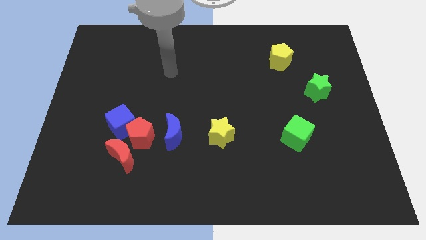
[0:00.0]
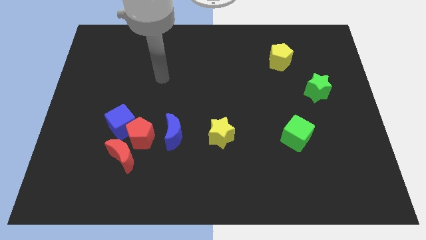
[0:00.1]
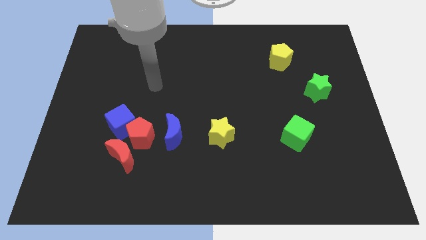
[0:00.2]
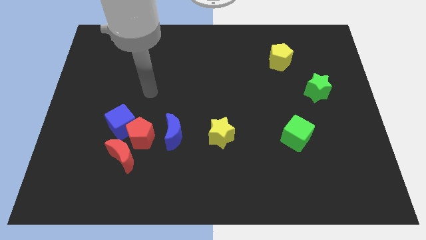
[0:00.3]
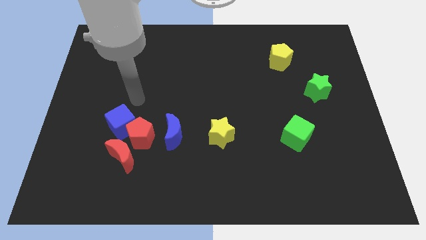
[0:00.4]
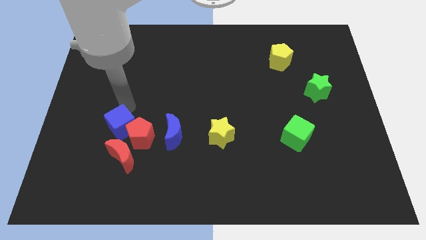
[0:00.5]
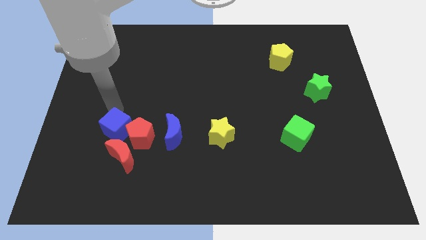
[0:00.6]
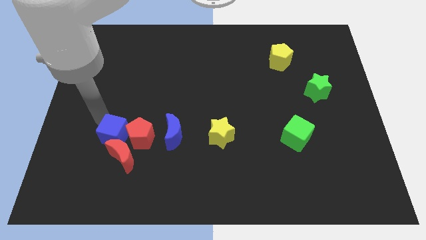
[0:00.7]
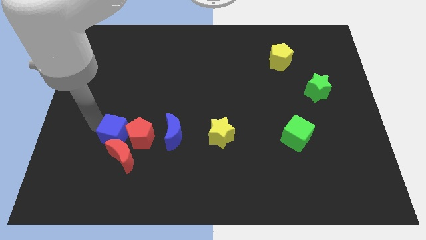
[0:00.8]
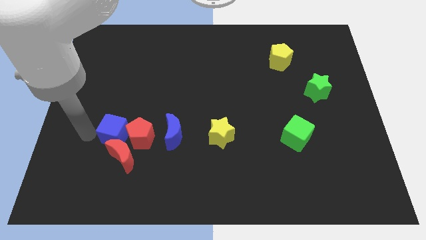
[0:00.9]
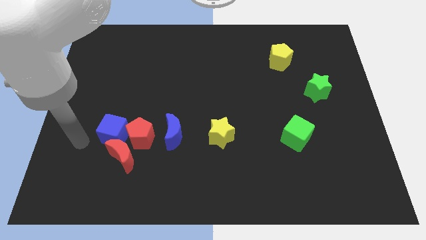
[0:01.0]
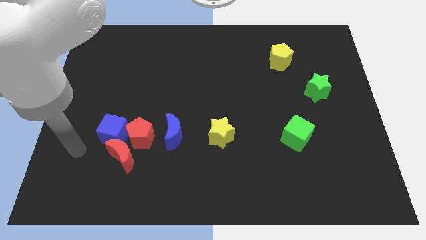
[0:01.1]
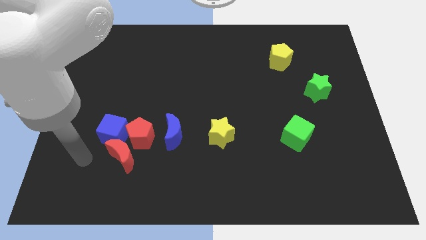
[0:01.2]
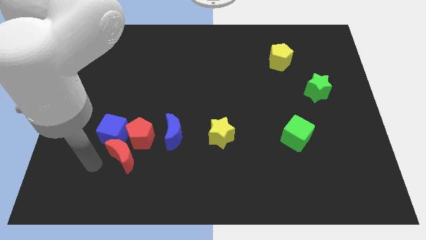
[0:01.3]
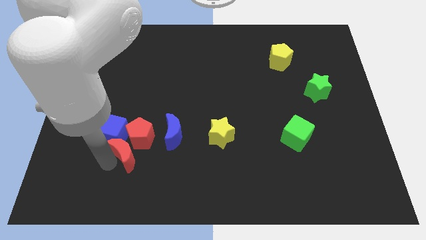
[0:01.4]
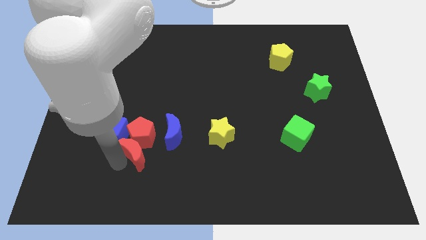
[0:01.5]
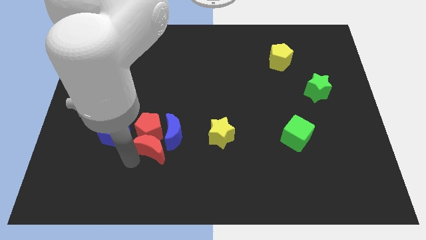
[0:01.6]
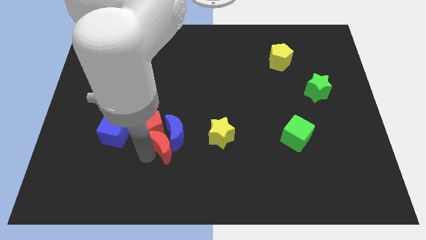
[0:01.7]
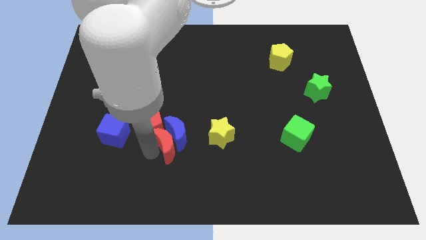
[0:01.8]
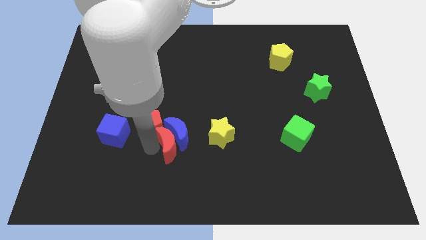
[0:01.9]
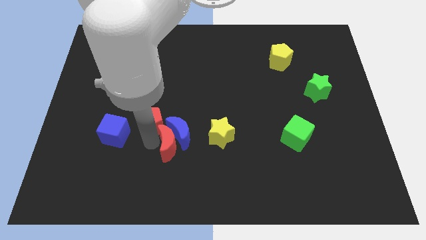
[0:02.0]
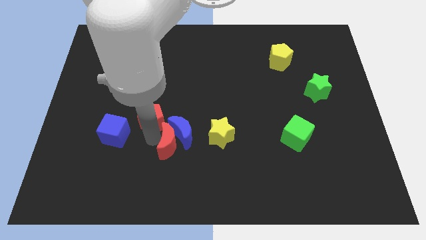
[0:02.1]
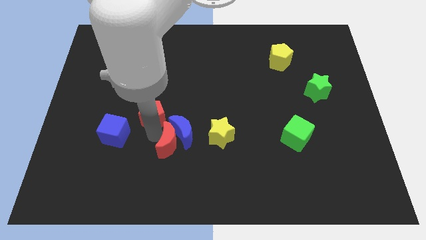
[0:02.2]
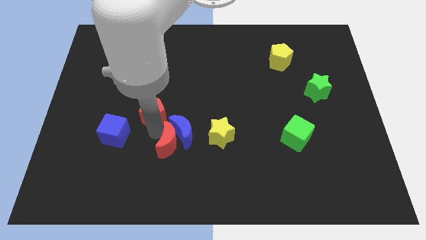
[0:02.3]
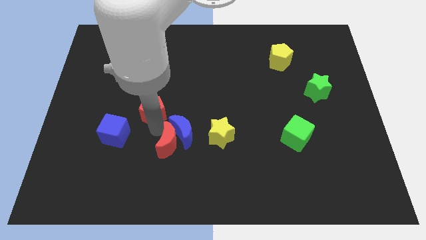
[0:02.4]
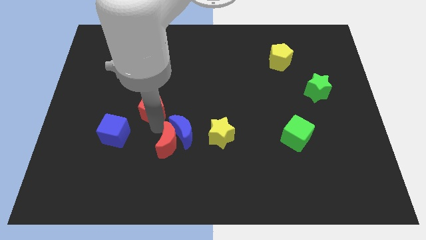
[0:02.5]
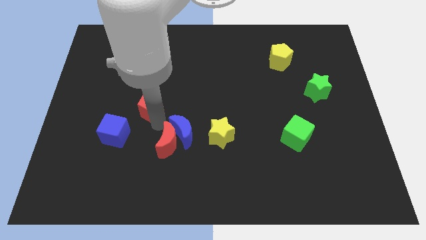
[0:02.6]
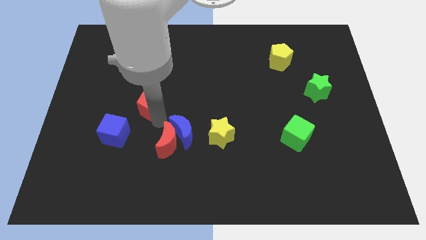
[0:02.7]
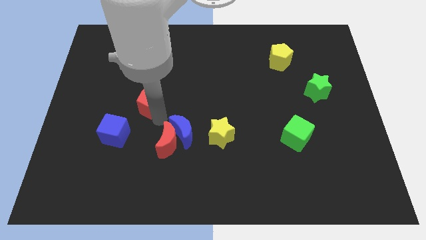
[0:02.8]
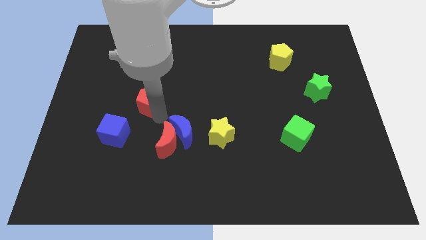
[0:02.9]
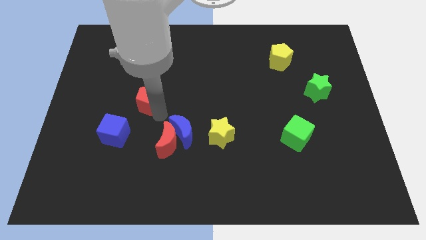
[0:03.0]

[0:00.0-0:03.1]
separate the red pentagon from the blue cube, red moon, and blue moon

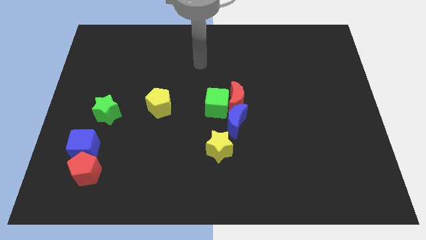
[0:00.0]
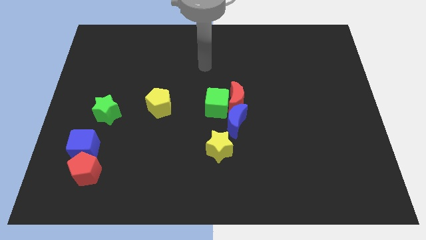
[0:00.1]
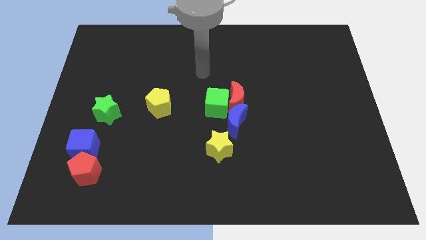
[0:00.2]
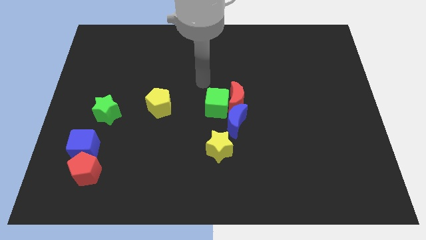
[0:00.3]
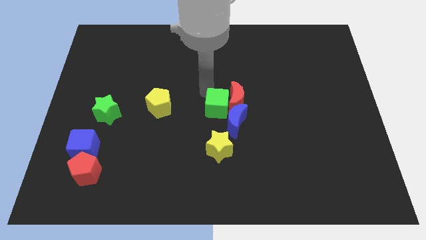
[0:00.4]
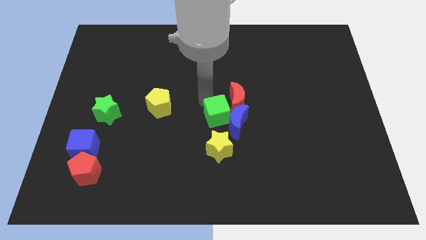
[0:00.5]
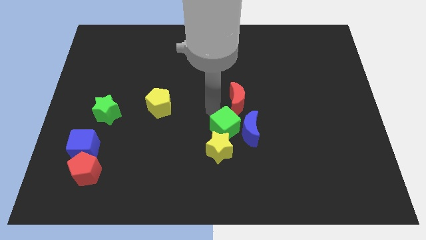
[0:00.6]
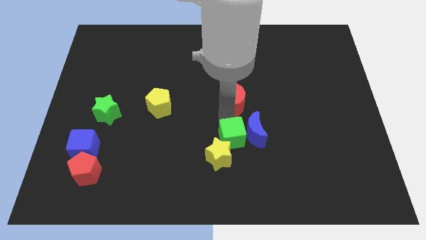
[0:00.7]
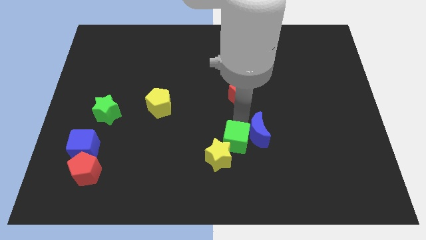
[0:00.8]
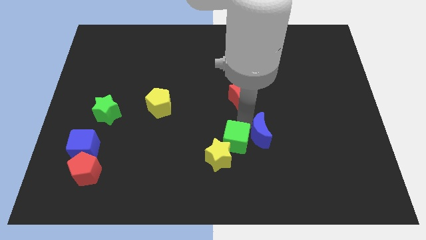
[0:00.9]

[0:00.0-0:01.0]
pull the red moon apart from the green cube and blue moon

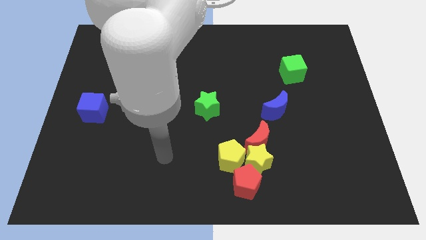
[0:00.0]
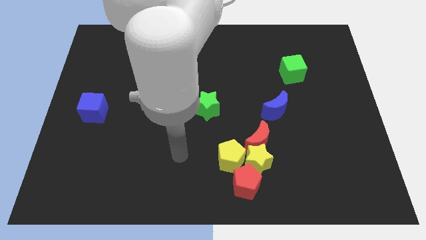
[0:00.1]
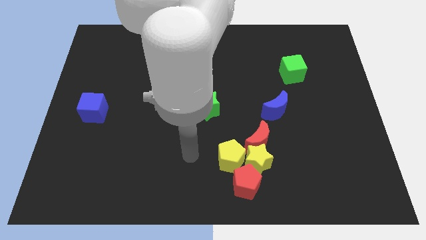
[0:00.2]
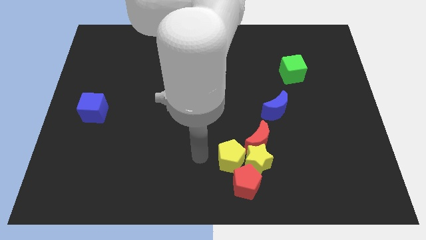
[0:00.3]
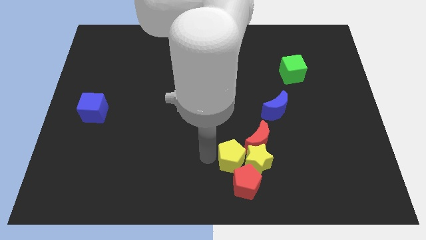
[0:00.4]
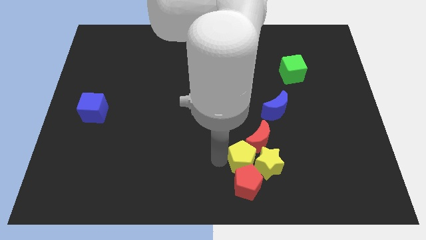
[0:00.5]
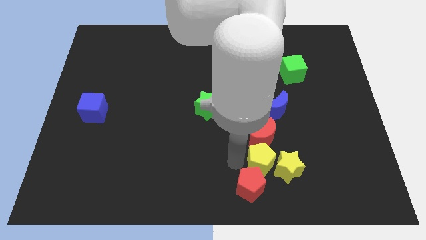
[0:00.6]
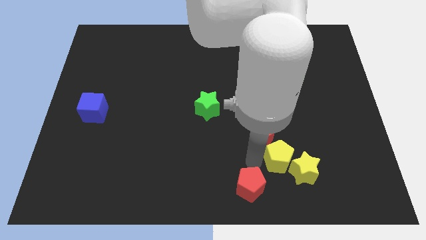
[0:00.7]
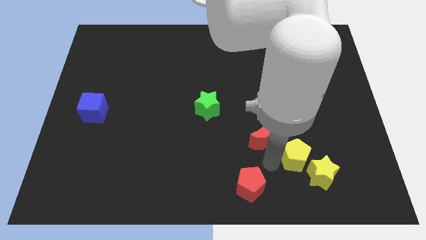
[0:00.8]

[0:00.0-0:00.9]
separate the yellow star from the group

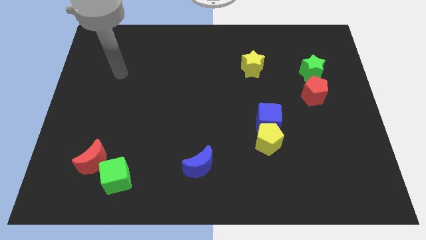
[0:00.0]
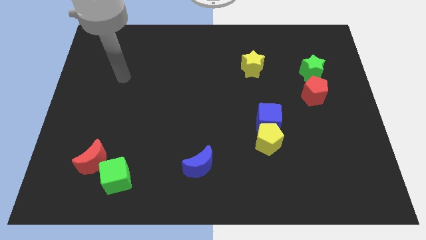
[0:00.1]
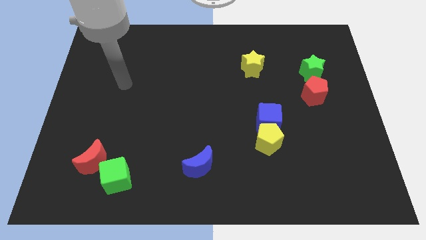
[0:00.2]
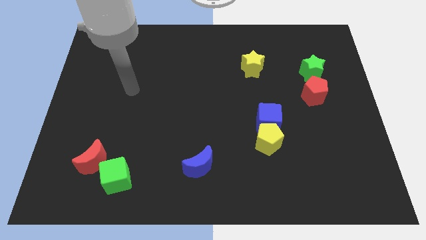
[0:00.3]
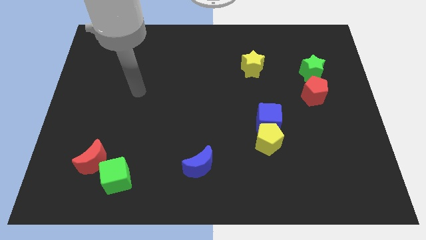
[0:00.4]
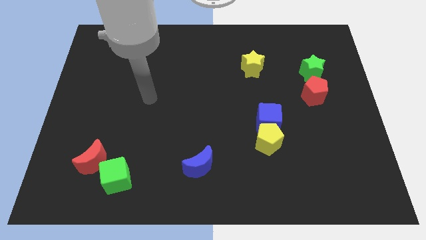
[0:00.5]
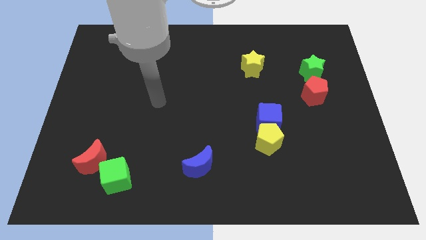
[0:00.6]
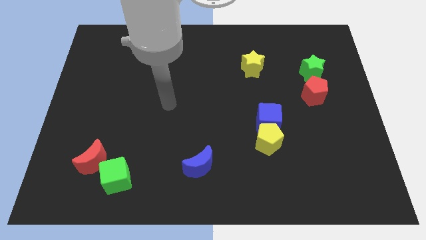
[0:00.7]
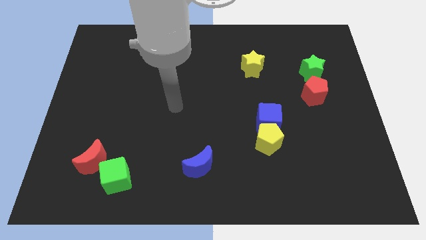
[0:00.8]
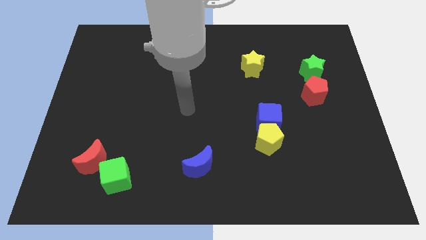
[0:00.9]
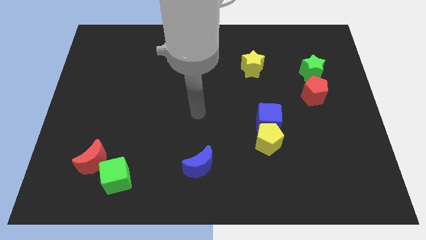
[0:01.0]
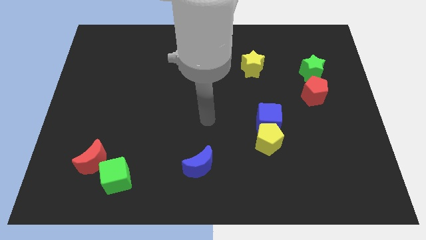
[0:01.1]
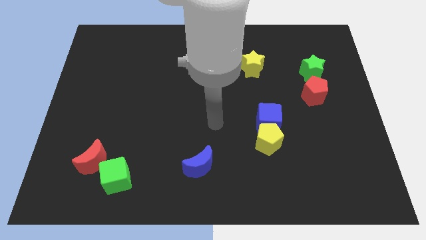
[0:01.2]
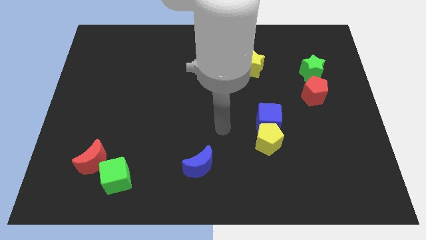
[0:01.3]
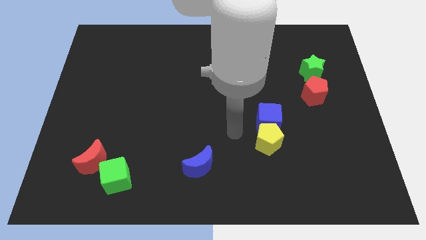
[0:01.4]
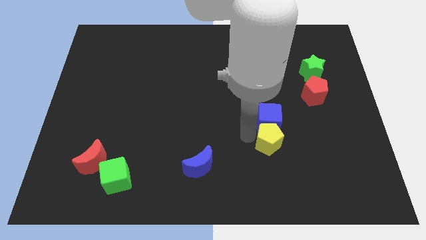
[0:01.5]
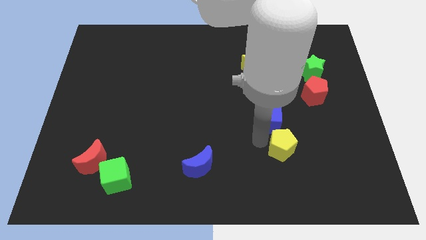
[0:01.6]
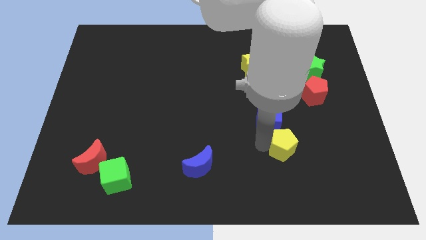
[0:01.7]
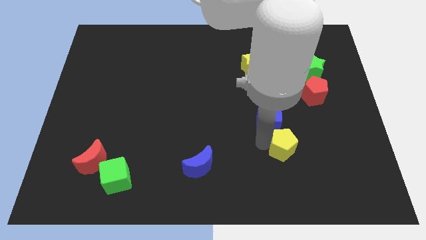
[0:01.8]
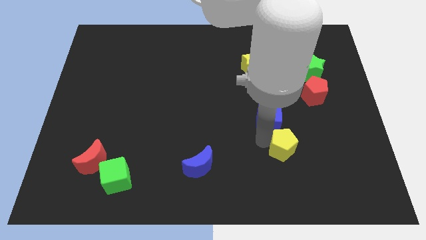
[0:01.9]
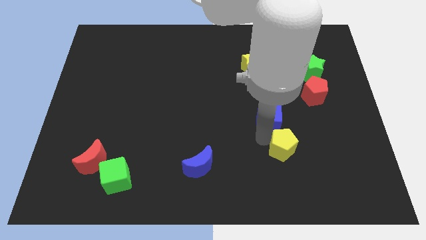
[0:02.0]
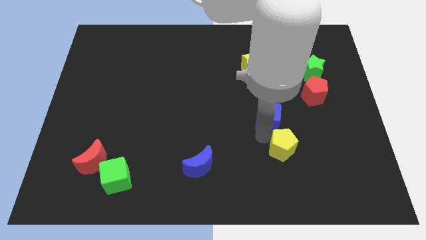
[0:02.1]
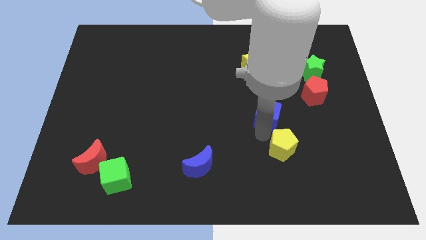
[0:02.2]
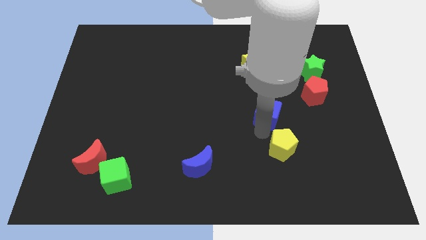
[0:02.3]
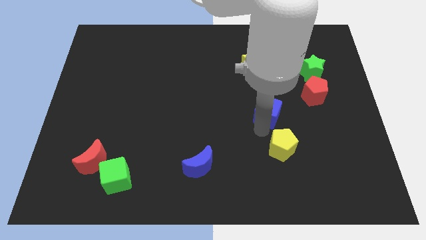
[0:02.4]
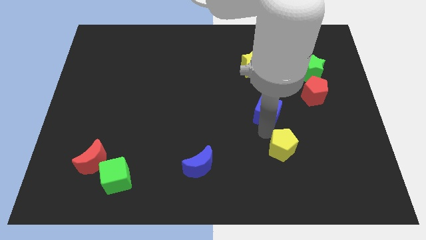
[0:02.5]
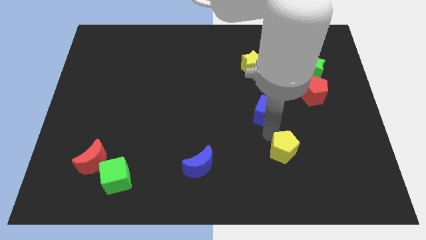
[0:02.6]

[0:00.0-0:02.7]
pull the blue cube apart from the yellow pentagon

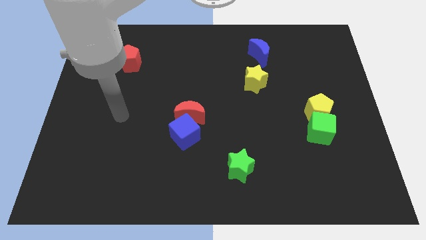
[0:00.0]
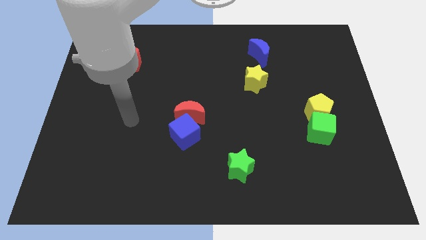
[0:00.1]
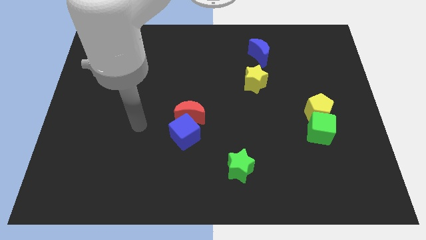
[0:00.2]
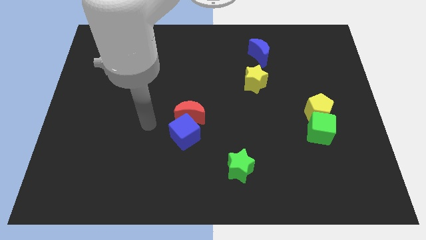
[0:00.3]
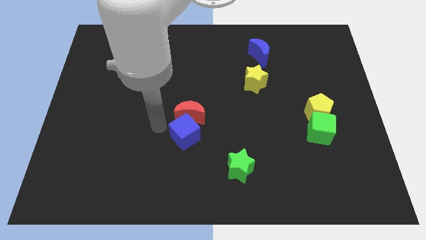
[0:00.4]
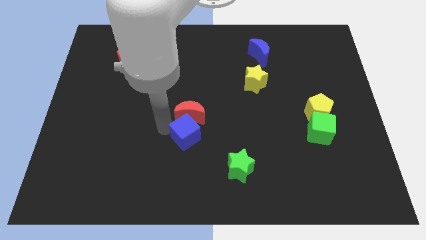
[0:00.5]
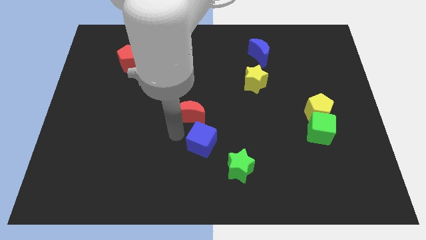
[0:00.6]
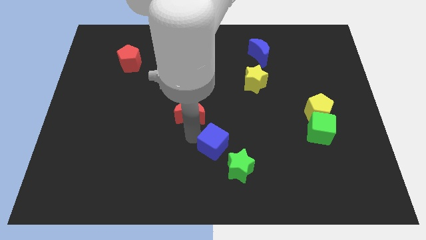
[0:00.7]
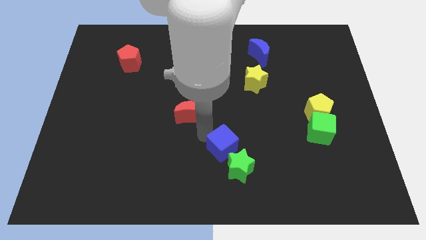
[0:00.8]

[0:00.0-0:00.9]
separate the red moon from the blue cube

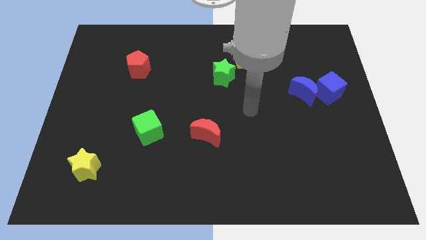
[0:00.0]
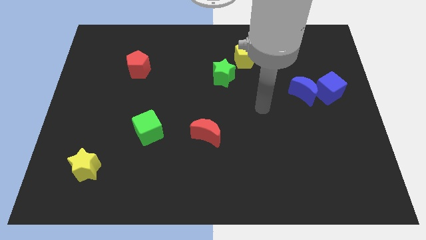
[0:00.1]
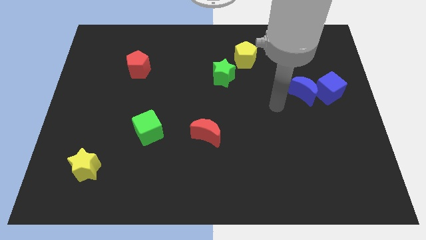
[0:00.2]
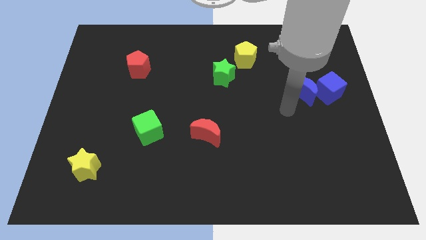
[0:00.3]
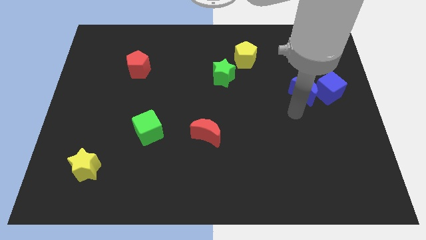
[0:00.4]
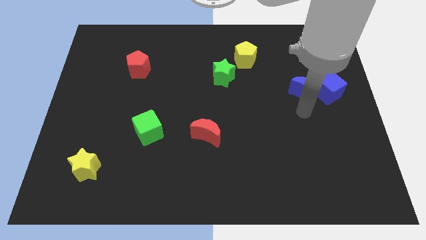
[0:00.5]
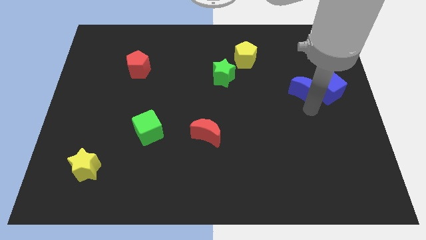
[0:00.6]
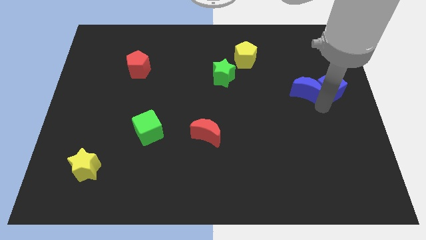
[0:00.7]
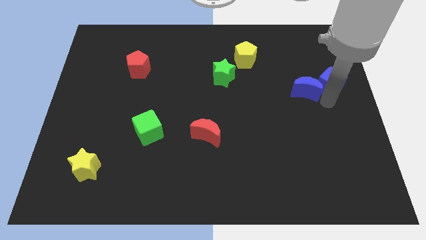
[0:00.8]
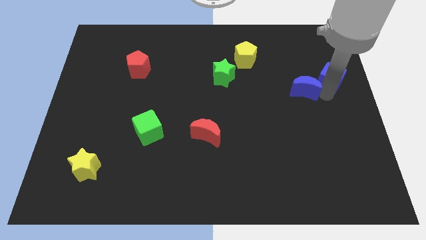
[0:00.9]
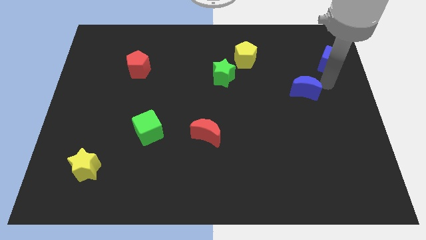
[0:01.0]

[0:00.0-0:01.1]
pull the blue moon apart from the blue cube
